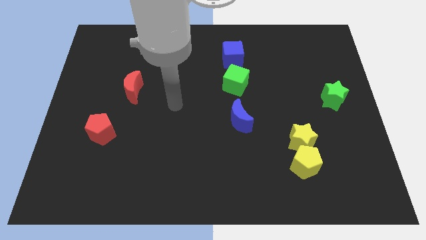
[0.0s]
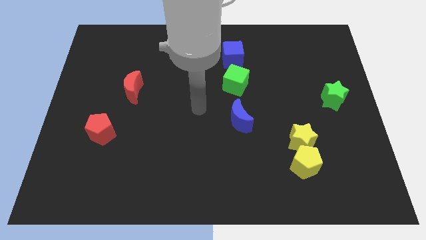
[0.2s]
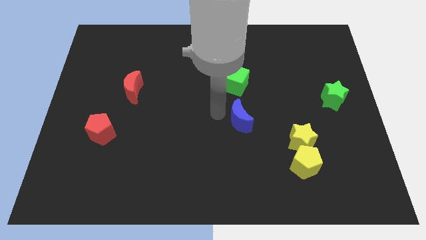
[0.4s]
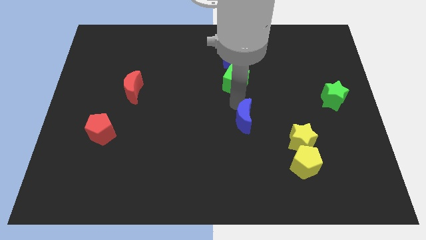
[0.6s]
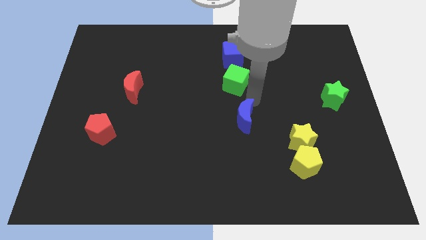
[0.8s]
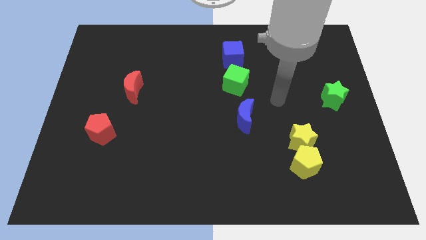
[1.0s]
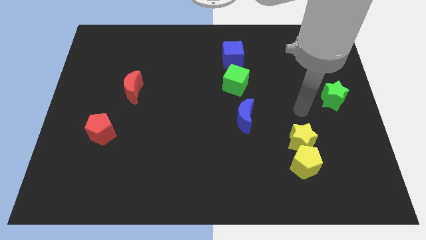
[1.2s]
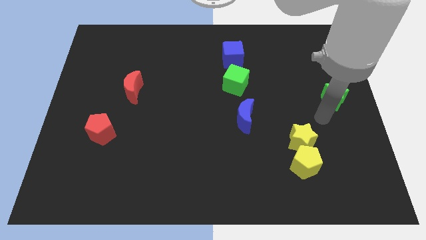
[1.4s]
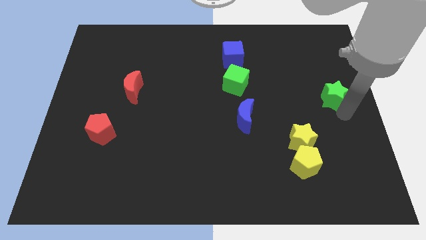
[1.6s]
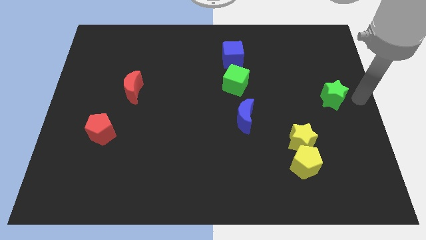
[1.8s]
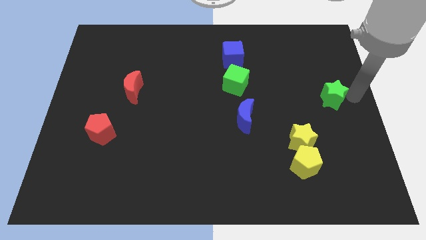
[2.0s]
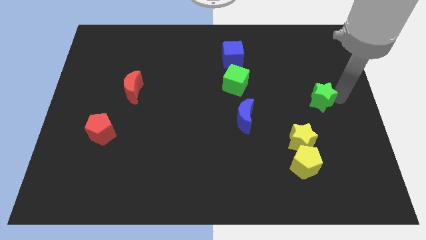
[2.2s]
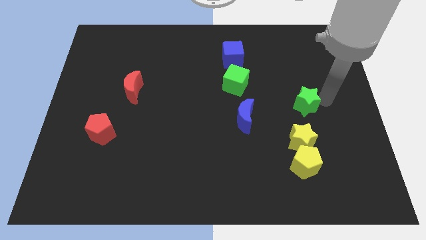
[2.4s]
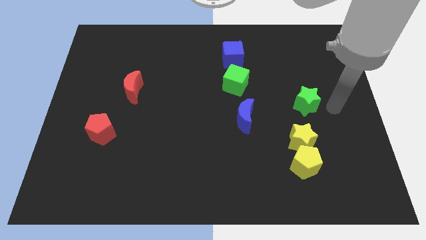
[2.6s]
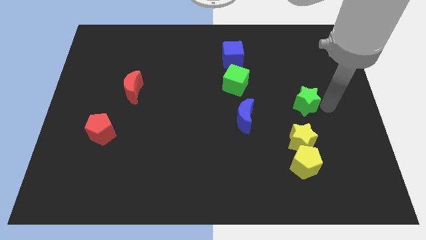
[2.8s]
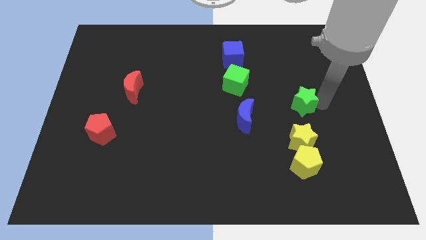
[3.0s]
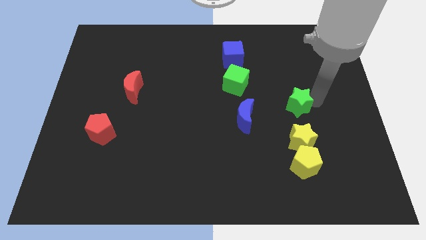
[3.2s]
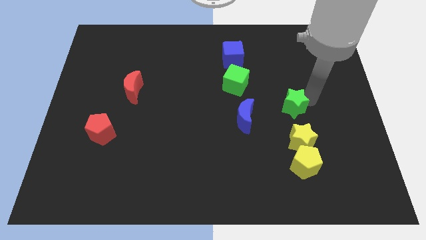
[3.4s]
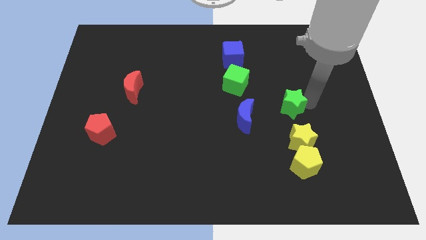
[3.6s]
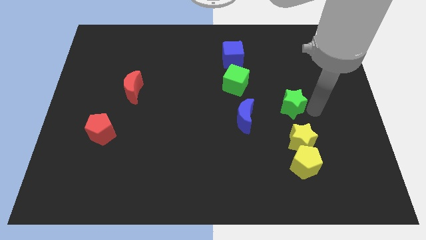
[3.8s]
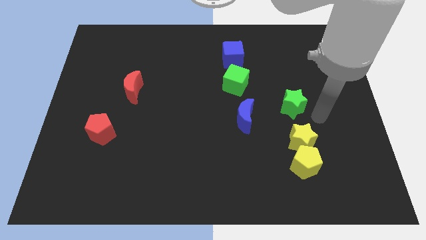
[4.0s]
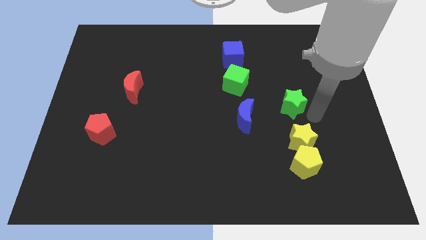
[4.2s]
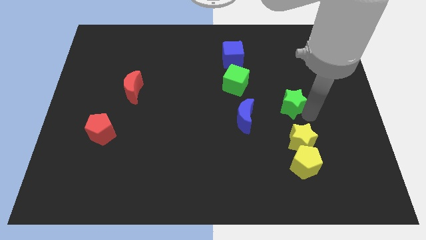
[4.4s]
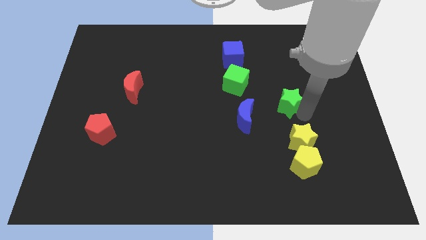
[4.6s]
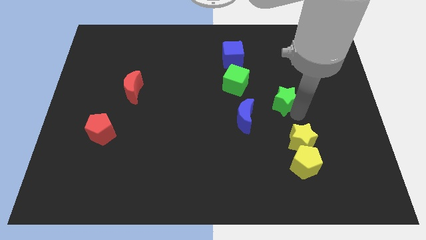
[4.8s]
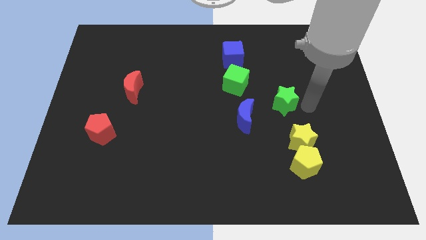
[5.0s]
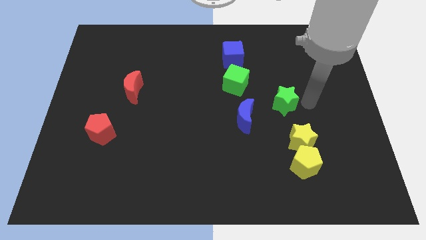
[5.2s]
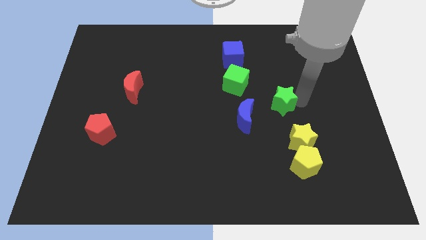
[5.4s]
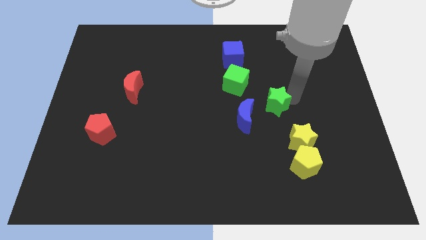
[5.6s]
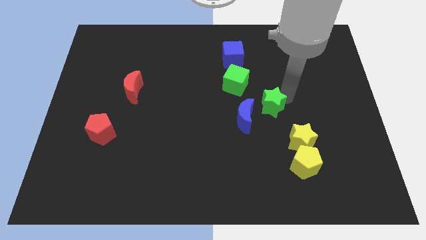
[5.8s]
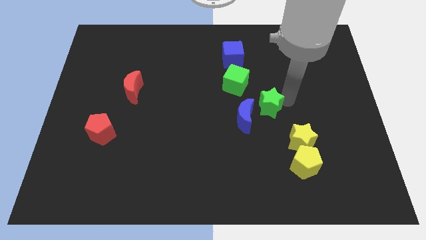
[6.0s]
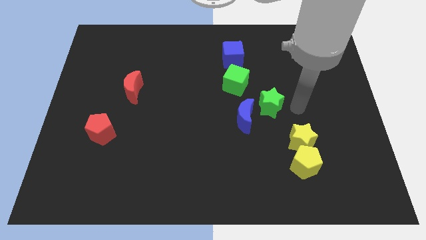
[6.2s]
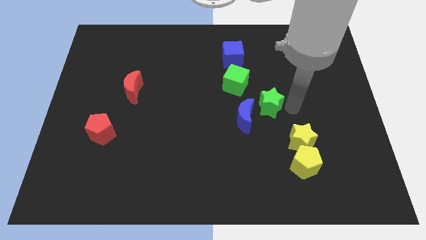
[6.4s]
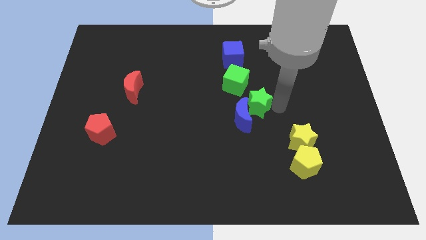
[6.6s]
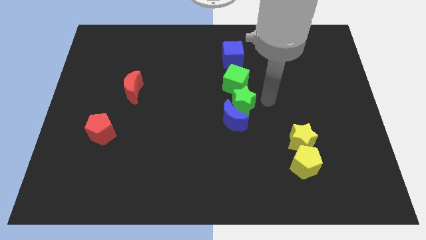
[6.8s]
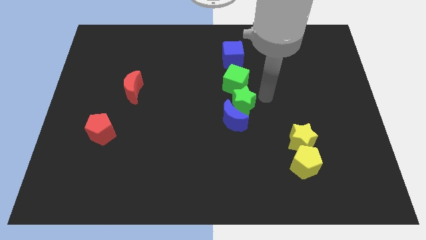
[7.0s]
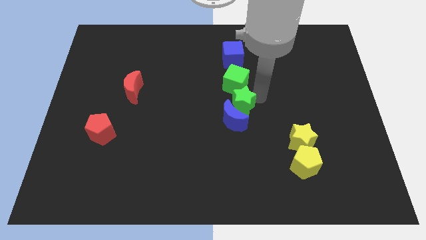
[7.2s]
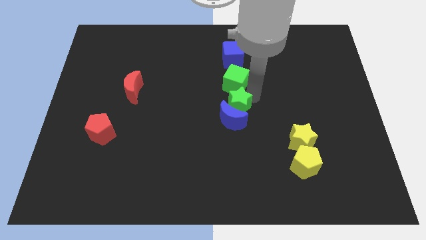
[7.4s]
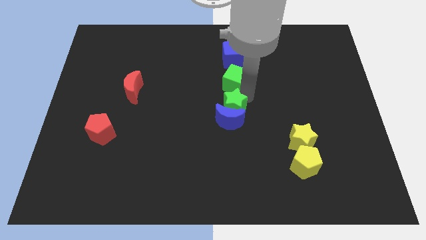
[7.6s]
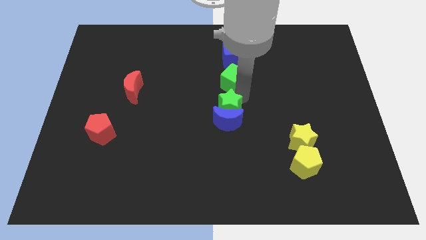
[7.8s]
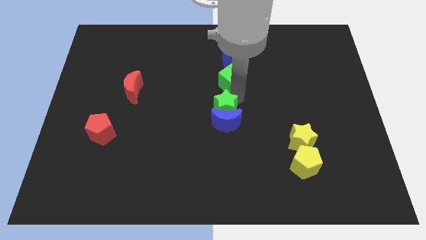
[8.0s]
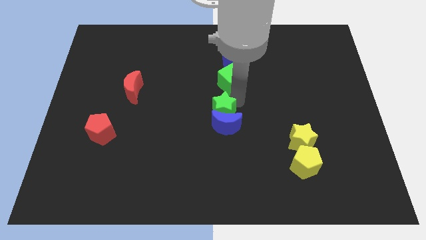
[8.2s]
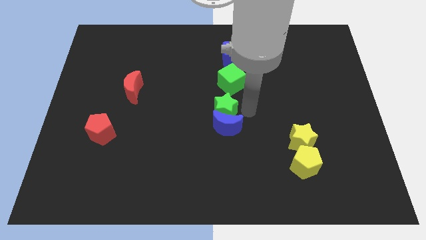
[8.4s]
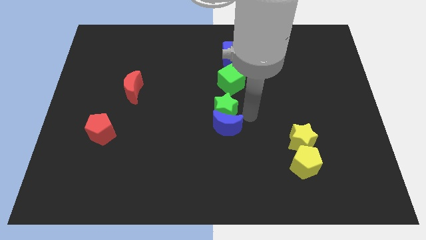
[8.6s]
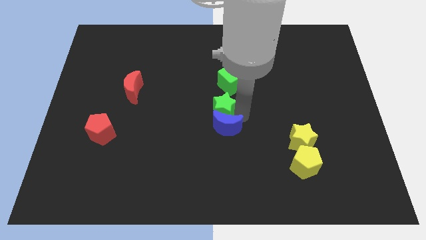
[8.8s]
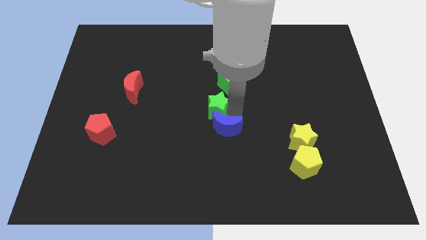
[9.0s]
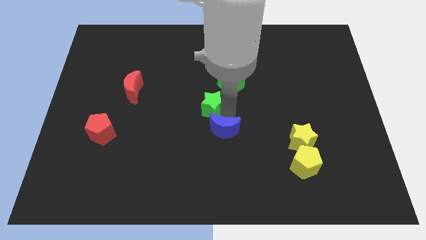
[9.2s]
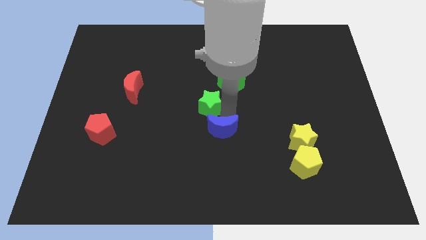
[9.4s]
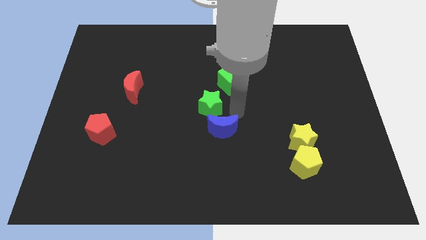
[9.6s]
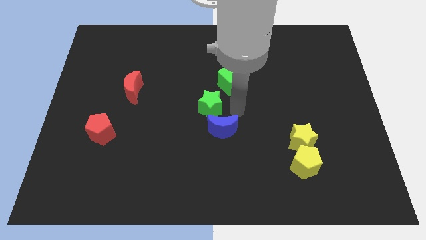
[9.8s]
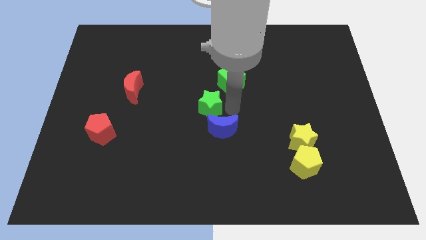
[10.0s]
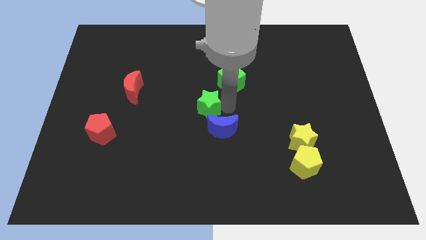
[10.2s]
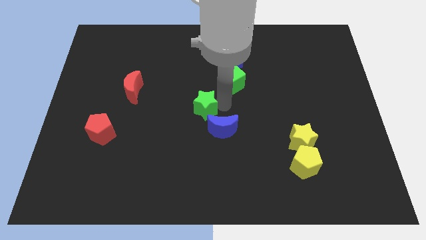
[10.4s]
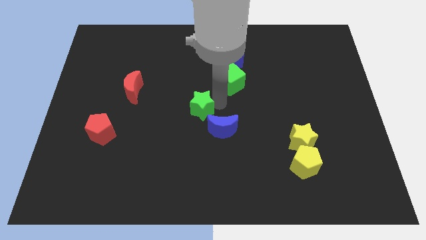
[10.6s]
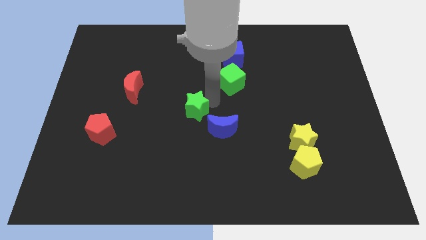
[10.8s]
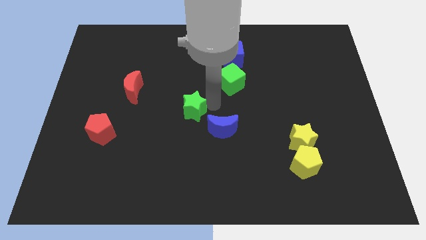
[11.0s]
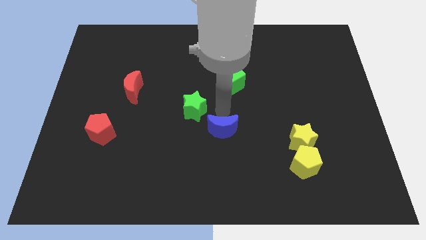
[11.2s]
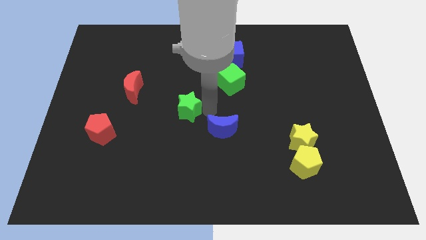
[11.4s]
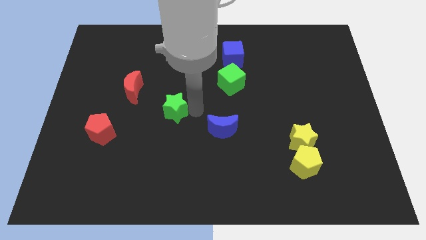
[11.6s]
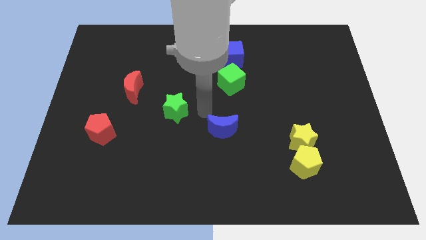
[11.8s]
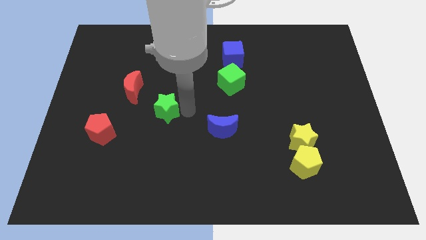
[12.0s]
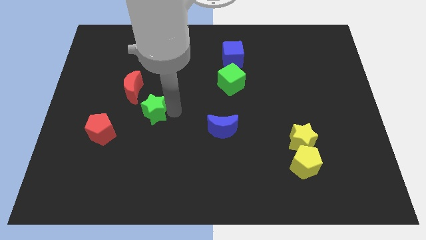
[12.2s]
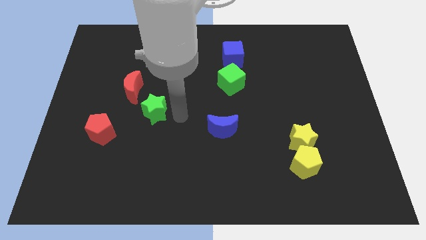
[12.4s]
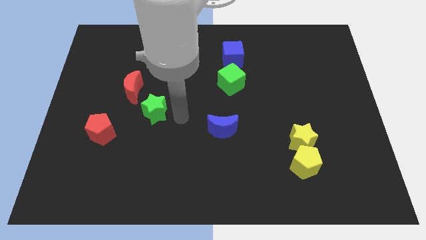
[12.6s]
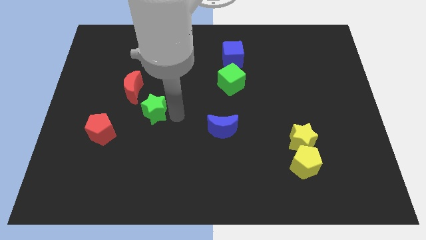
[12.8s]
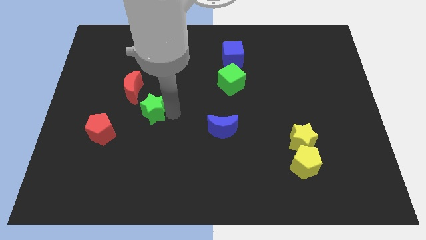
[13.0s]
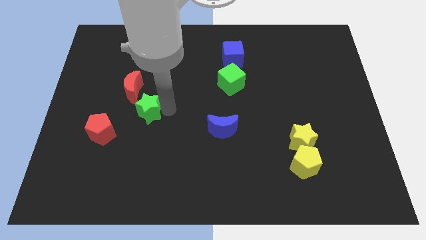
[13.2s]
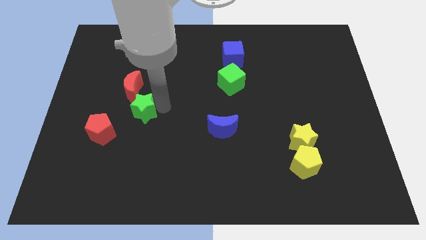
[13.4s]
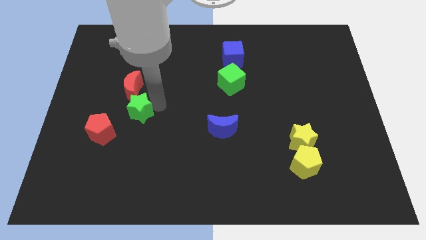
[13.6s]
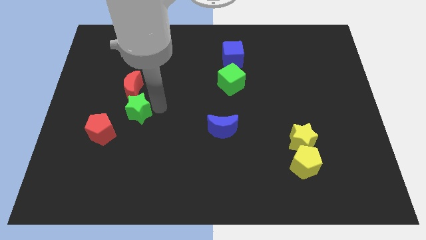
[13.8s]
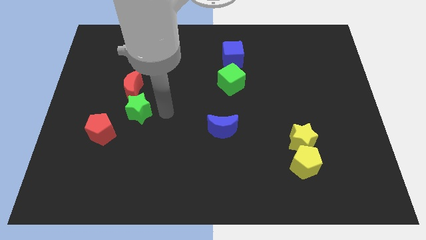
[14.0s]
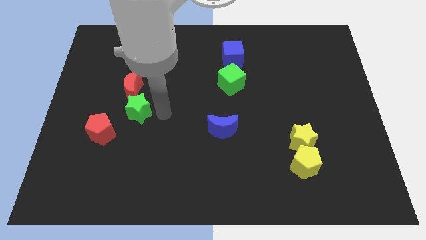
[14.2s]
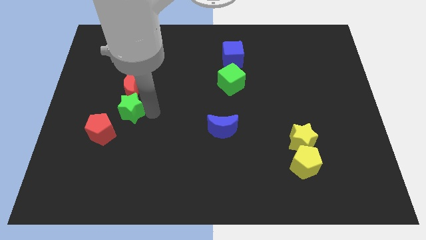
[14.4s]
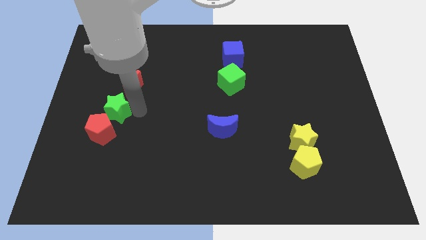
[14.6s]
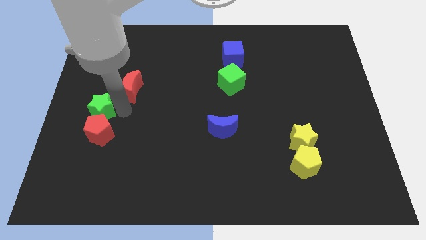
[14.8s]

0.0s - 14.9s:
slide the green star to the left side of the board
